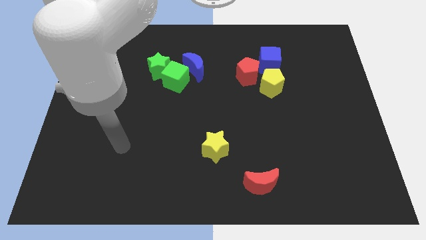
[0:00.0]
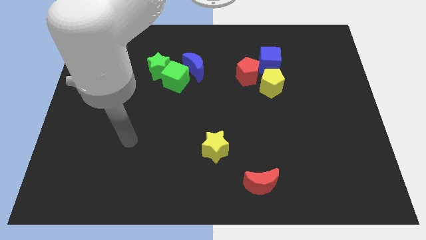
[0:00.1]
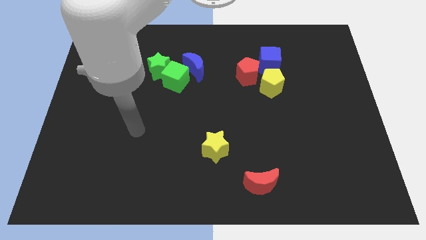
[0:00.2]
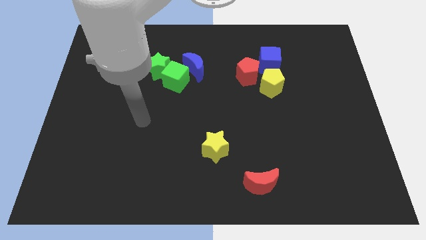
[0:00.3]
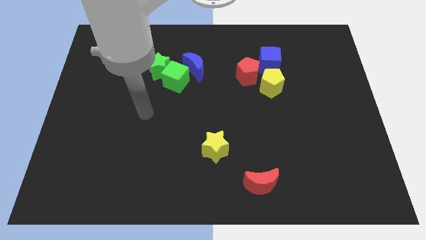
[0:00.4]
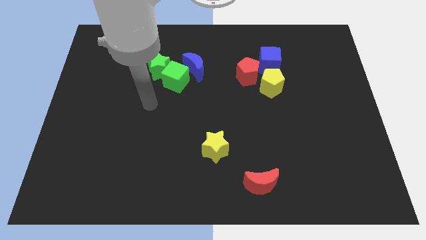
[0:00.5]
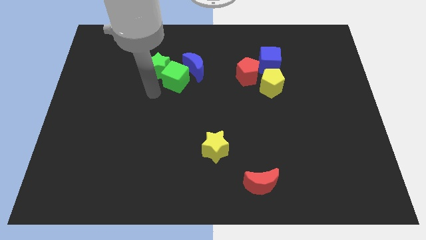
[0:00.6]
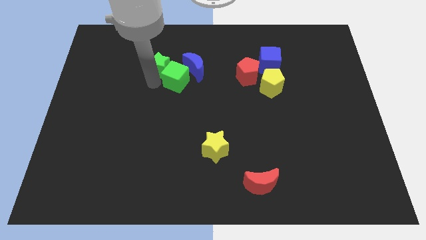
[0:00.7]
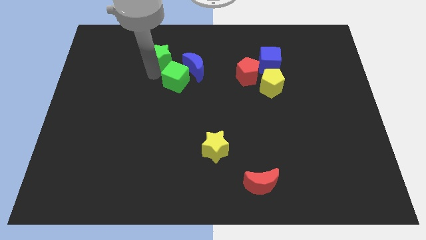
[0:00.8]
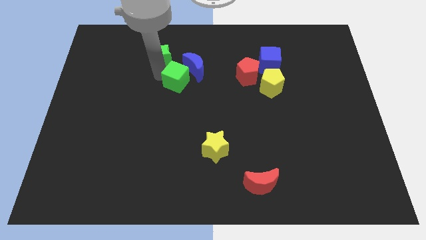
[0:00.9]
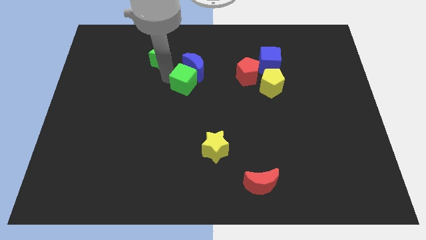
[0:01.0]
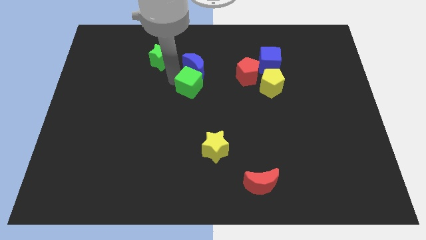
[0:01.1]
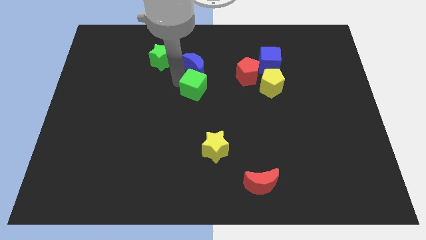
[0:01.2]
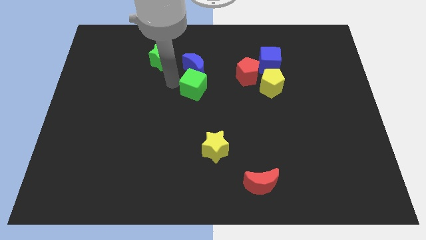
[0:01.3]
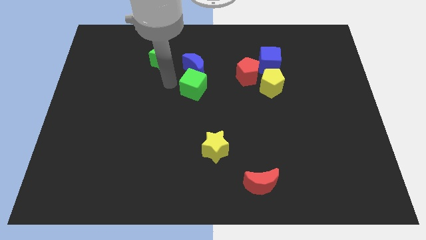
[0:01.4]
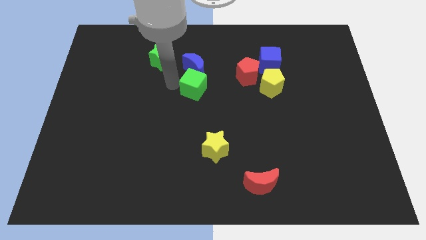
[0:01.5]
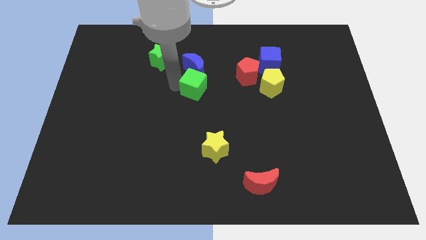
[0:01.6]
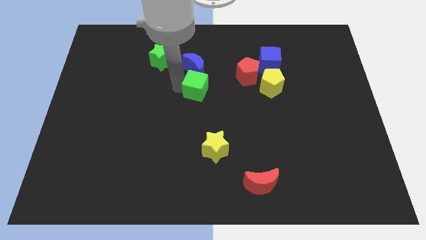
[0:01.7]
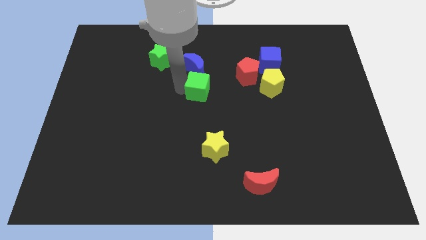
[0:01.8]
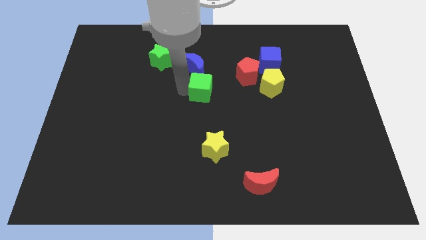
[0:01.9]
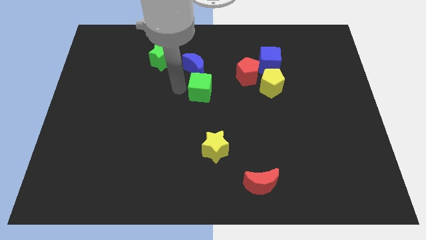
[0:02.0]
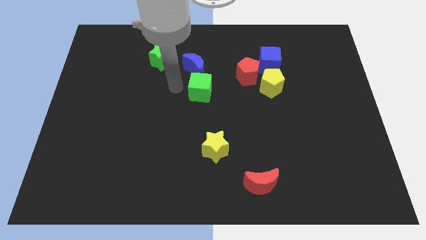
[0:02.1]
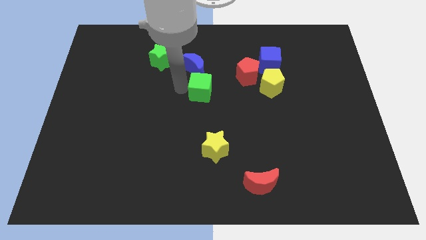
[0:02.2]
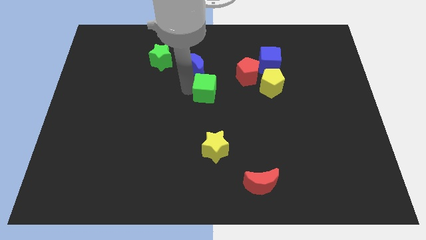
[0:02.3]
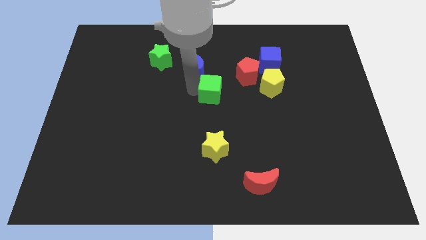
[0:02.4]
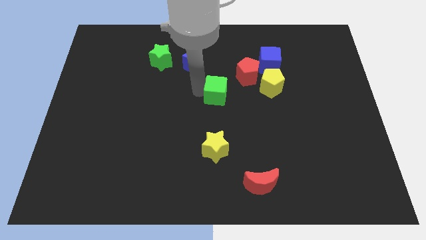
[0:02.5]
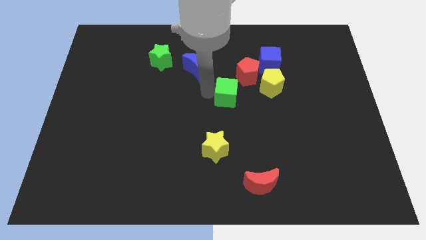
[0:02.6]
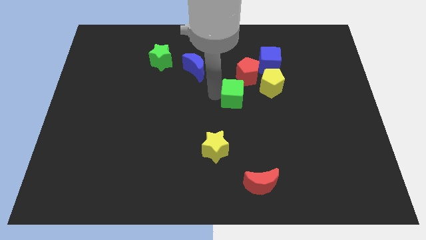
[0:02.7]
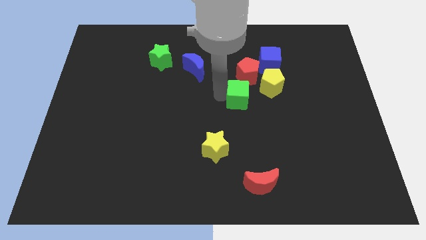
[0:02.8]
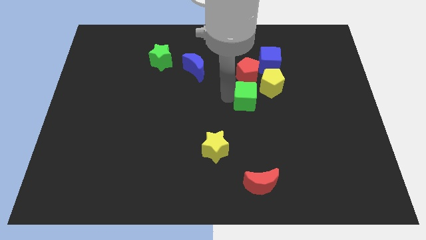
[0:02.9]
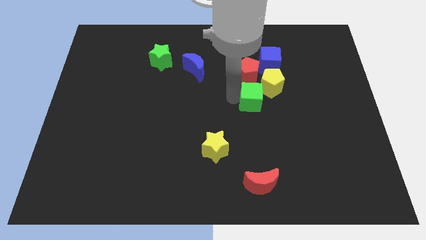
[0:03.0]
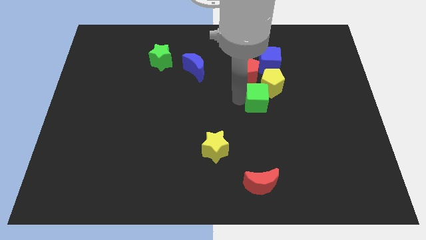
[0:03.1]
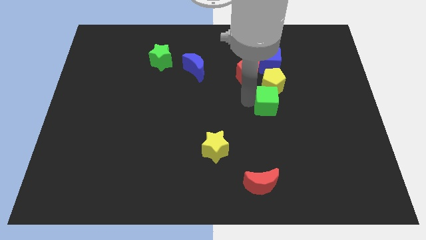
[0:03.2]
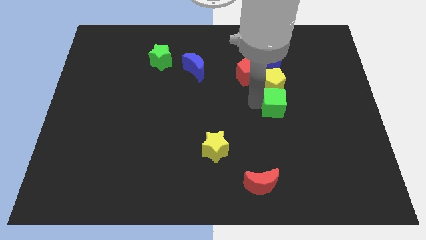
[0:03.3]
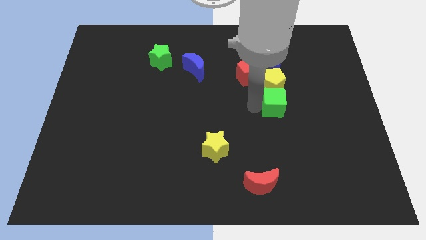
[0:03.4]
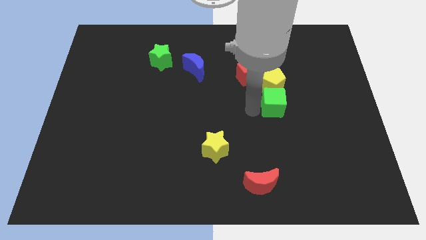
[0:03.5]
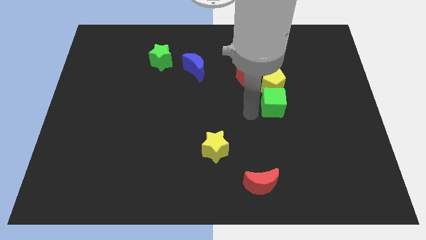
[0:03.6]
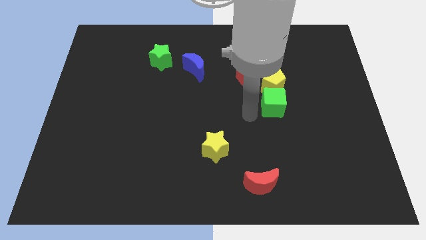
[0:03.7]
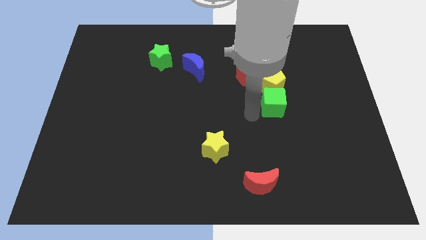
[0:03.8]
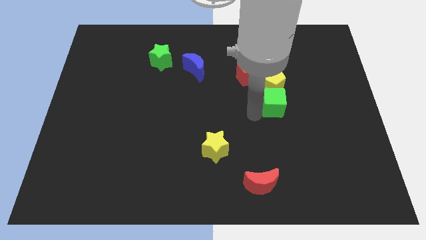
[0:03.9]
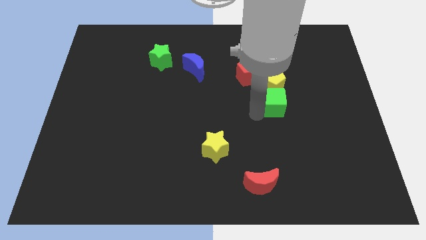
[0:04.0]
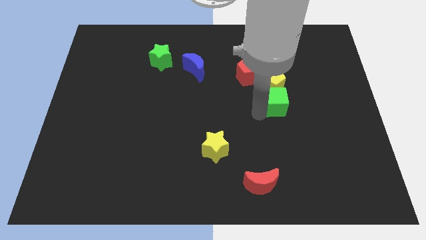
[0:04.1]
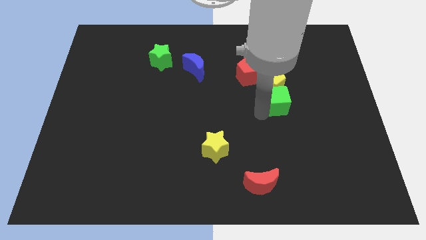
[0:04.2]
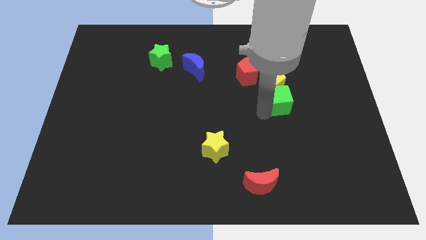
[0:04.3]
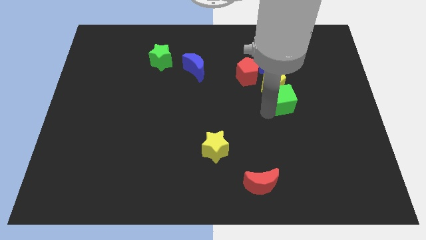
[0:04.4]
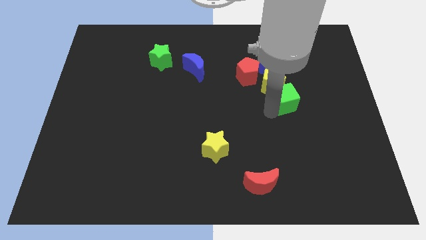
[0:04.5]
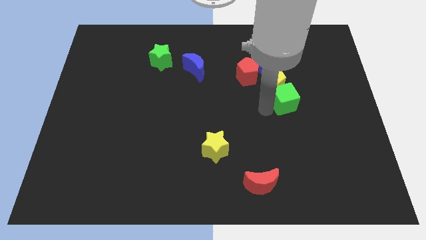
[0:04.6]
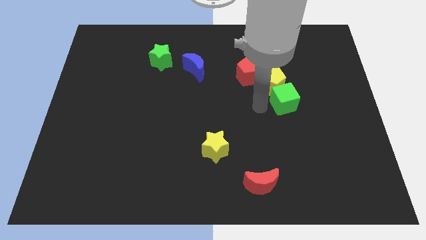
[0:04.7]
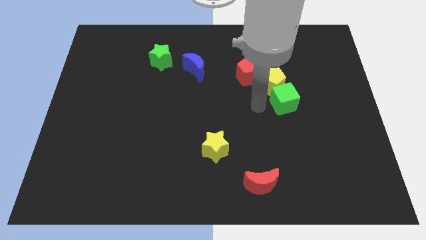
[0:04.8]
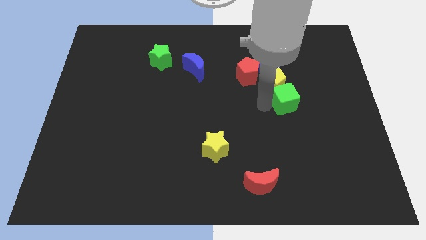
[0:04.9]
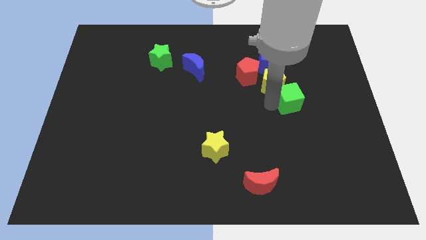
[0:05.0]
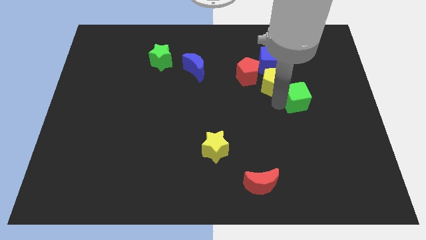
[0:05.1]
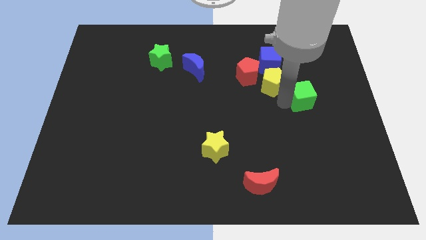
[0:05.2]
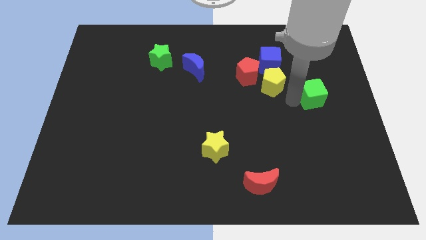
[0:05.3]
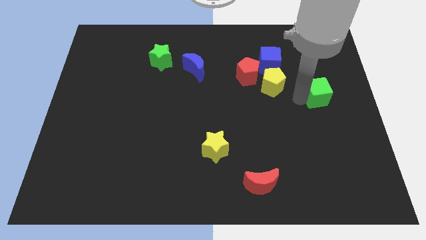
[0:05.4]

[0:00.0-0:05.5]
slide the green cube to the center right

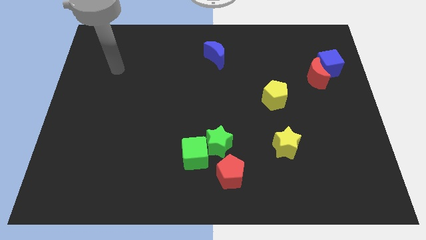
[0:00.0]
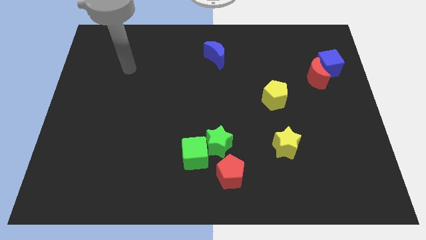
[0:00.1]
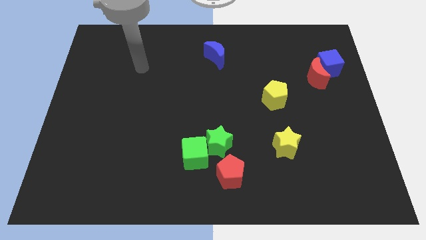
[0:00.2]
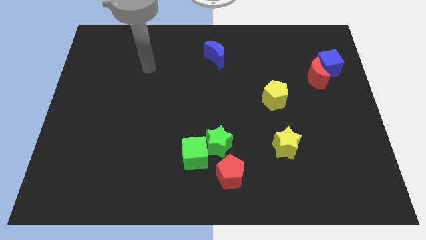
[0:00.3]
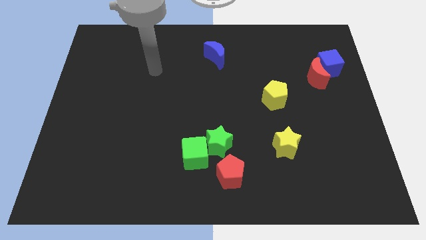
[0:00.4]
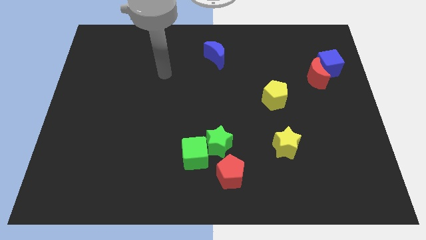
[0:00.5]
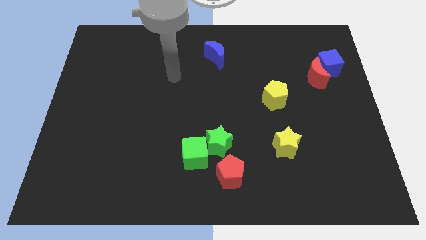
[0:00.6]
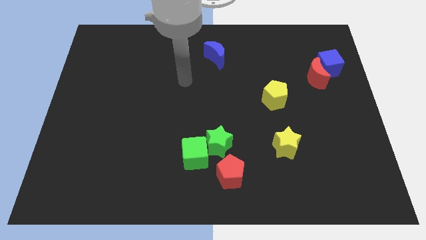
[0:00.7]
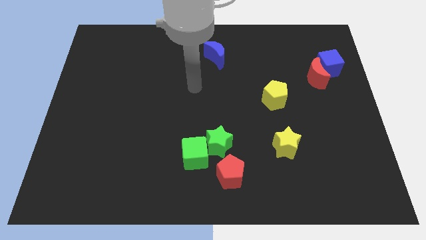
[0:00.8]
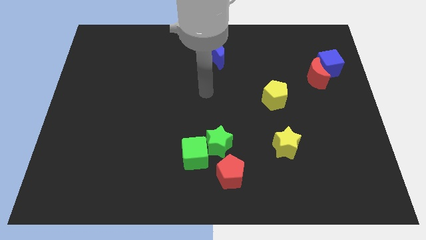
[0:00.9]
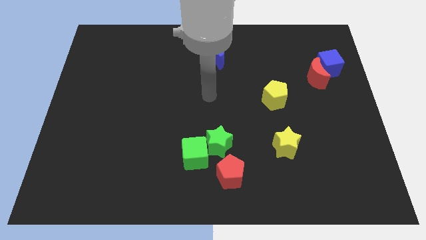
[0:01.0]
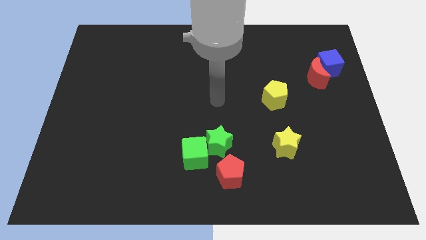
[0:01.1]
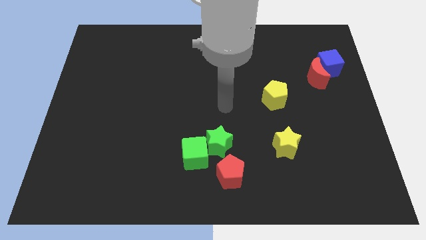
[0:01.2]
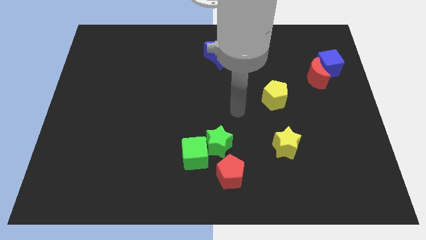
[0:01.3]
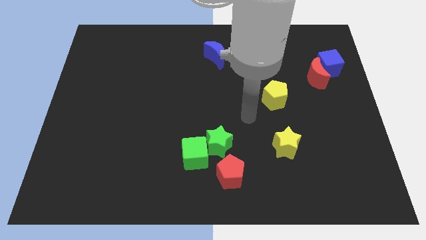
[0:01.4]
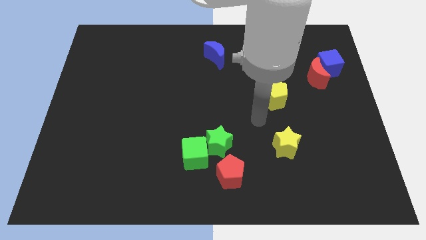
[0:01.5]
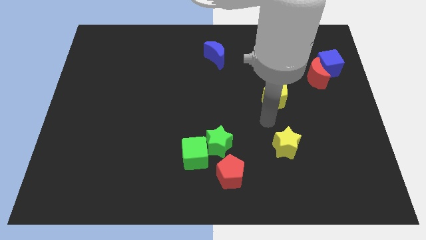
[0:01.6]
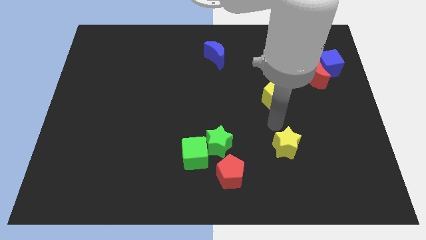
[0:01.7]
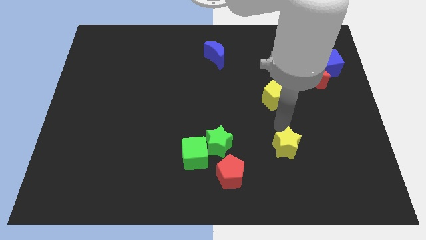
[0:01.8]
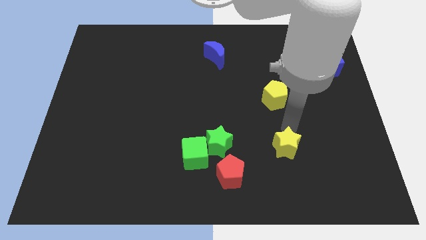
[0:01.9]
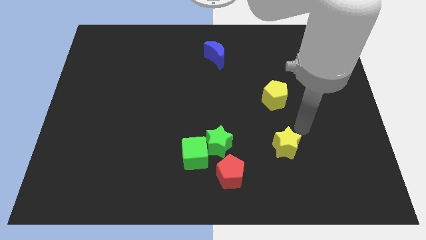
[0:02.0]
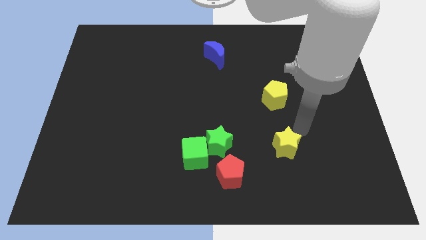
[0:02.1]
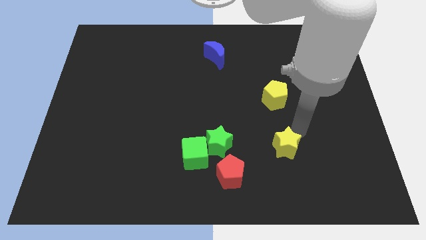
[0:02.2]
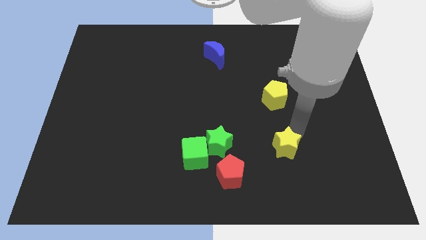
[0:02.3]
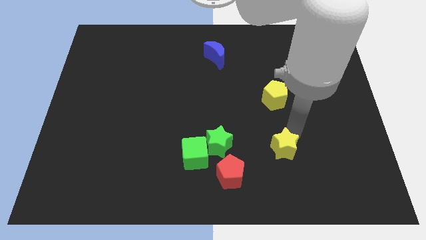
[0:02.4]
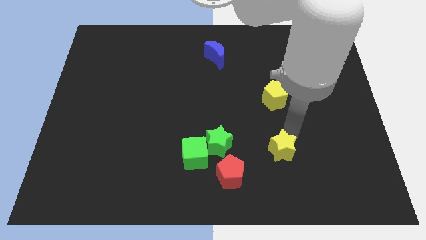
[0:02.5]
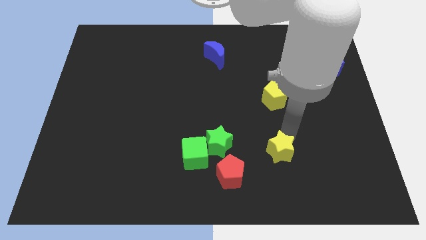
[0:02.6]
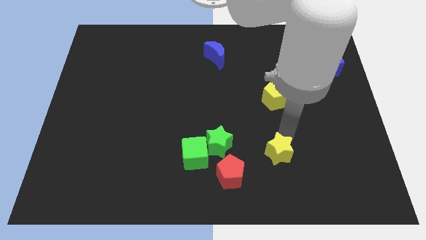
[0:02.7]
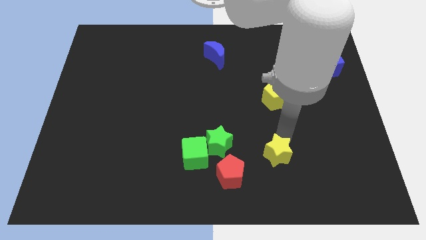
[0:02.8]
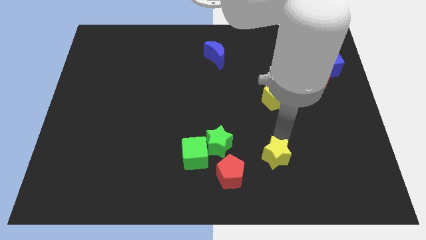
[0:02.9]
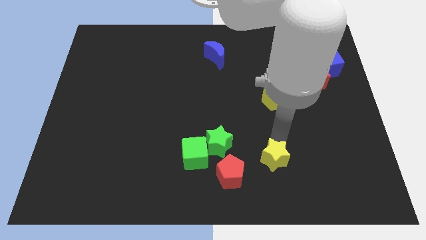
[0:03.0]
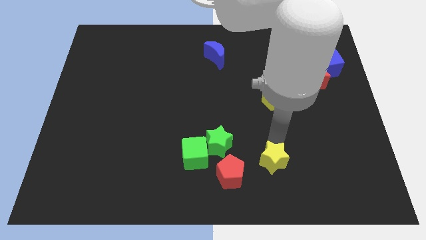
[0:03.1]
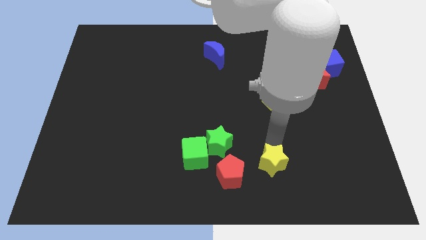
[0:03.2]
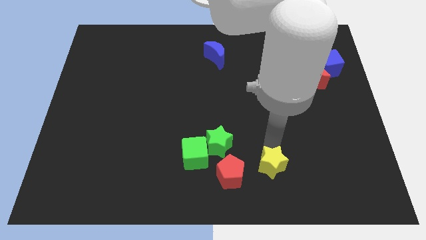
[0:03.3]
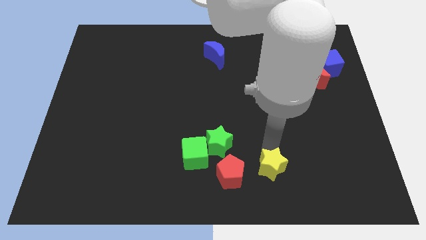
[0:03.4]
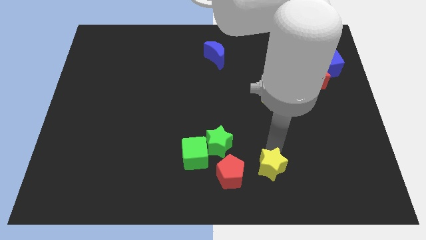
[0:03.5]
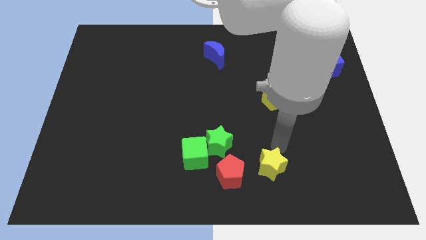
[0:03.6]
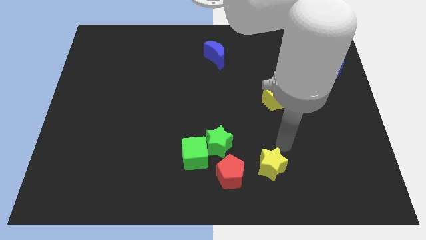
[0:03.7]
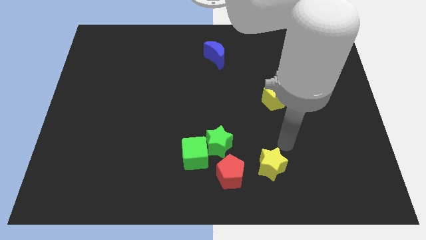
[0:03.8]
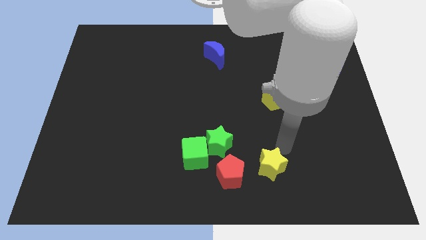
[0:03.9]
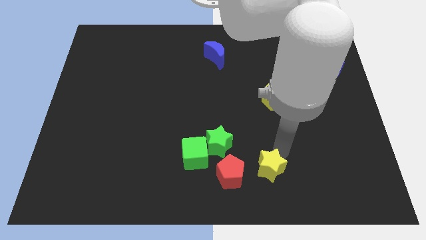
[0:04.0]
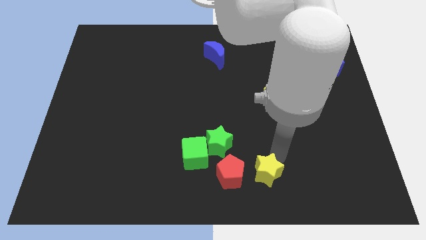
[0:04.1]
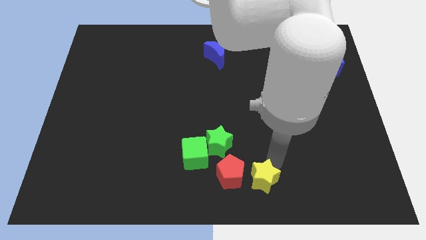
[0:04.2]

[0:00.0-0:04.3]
put the yellow star to the bottom
